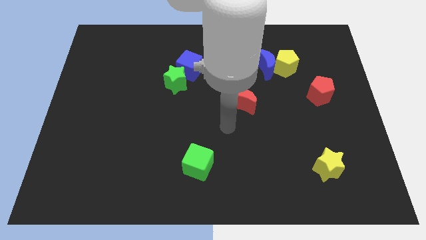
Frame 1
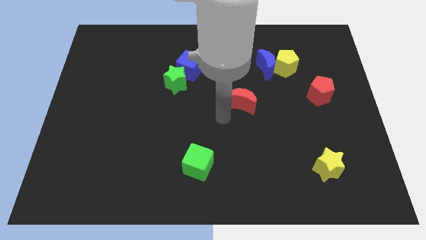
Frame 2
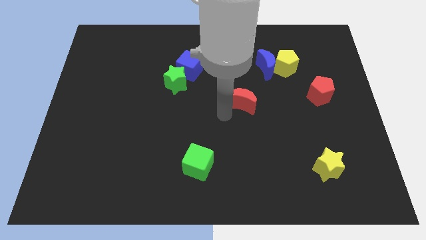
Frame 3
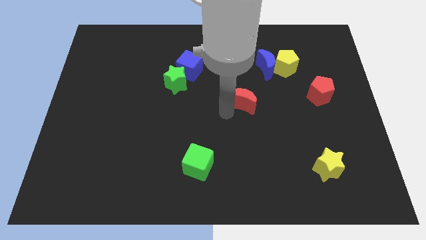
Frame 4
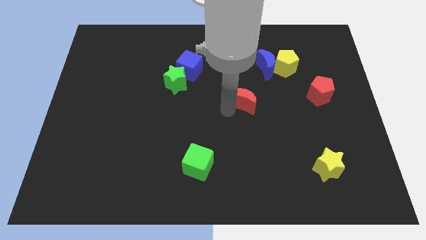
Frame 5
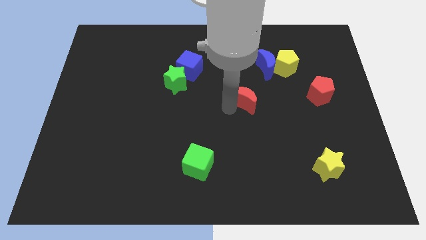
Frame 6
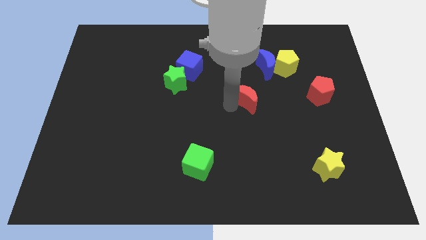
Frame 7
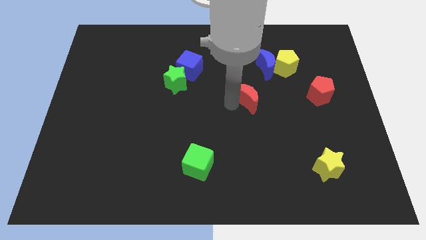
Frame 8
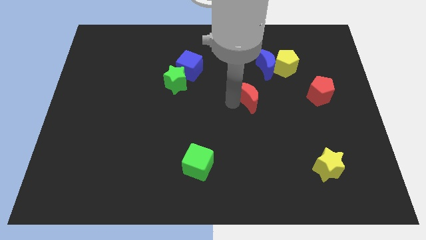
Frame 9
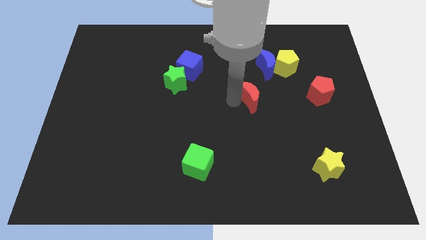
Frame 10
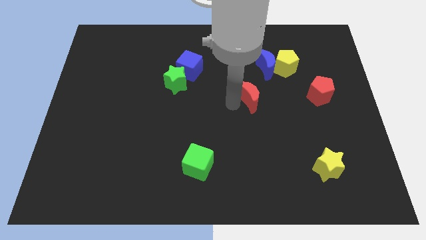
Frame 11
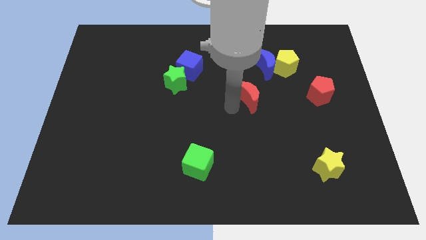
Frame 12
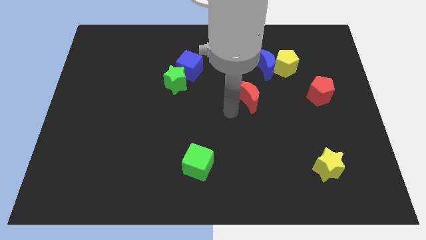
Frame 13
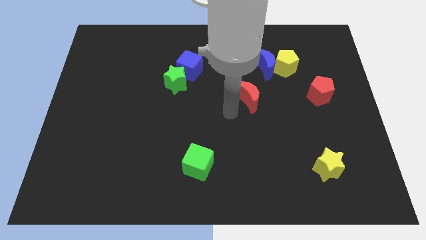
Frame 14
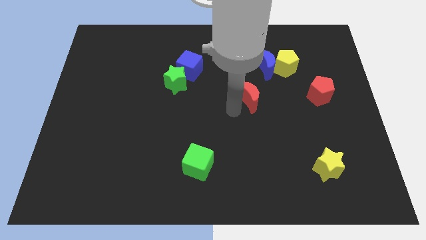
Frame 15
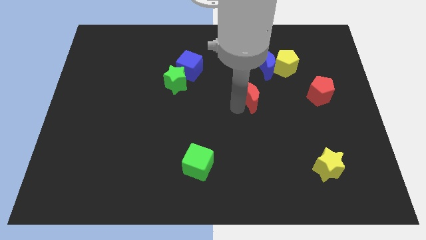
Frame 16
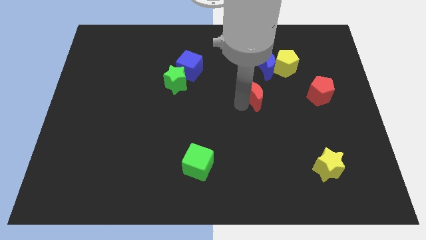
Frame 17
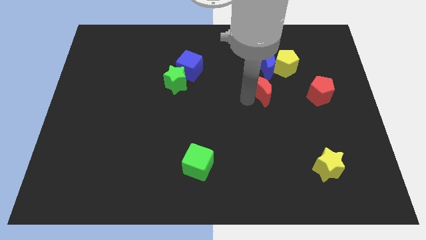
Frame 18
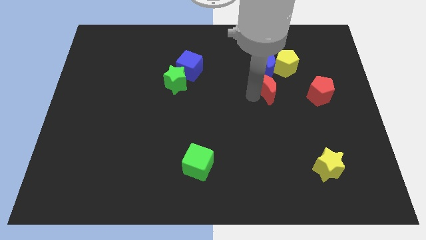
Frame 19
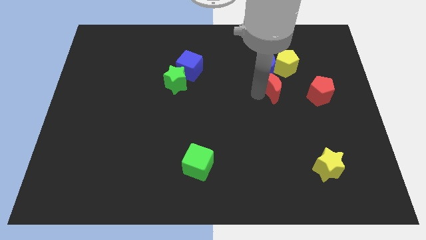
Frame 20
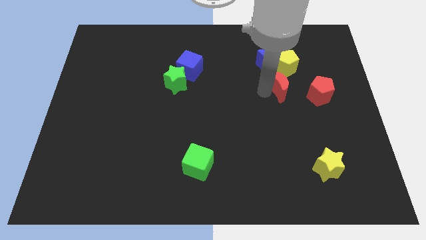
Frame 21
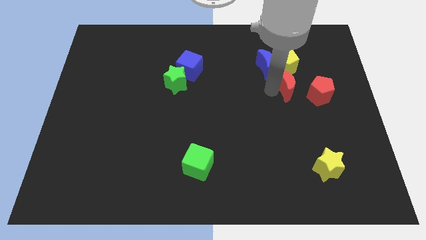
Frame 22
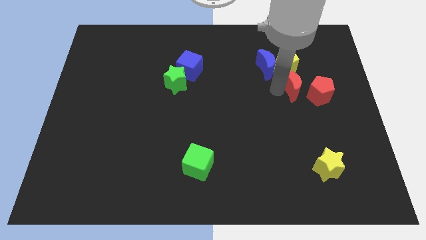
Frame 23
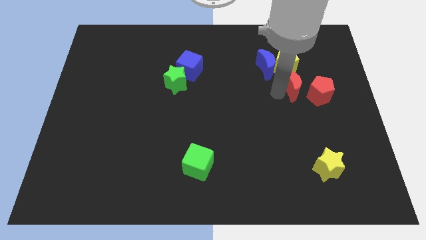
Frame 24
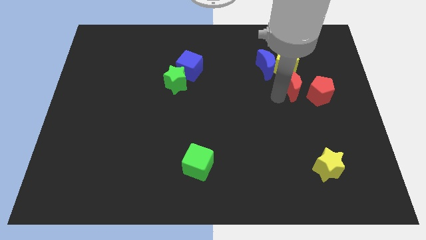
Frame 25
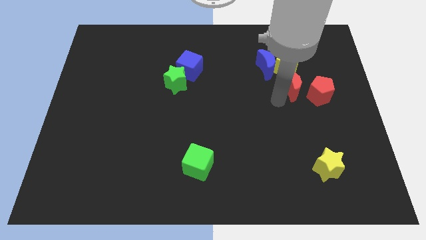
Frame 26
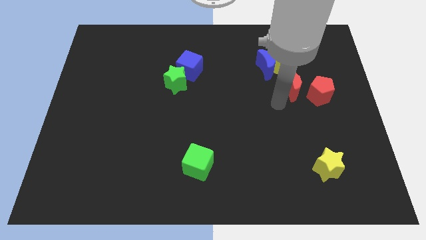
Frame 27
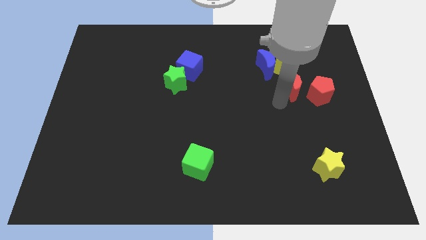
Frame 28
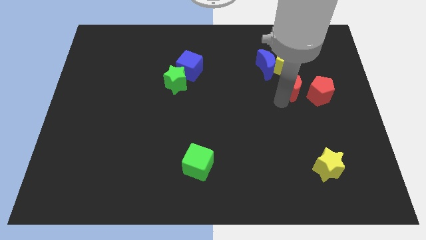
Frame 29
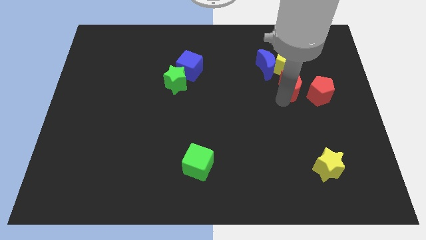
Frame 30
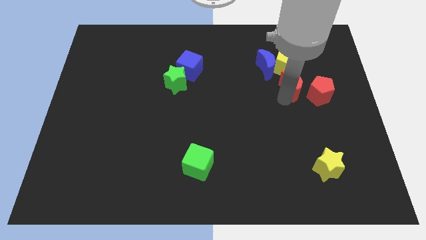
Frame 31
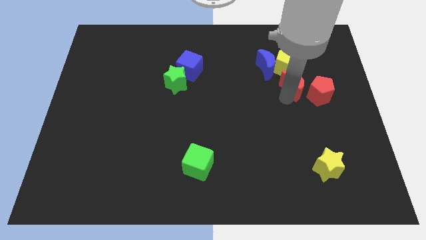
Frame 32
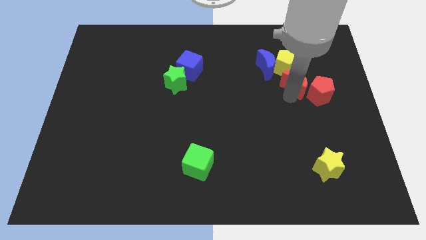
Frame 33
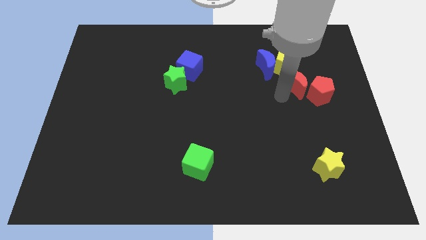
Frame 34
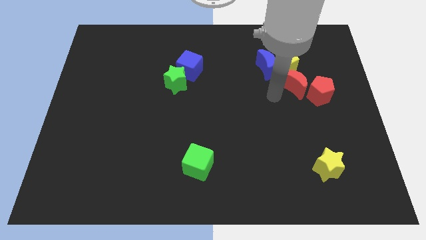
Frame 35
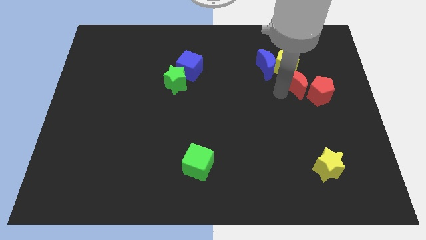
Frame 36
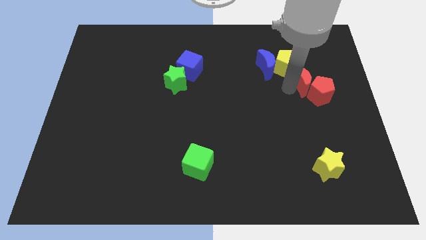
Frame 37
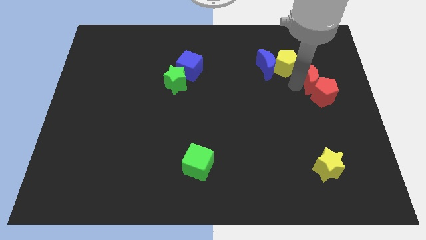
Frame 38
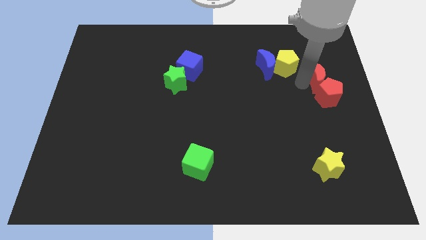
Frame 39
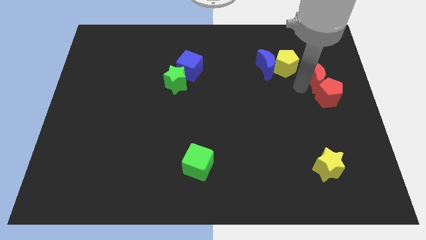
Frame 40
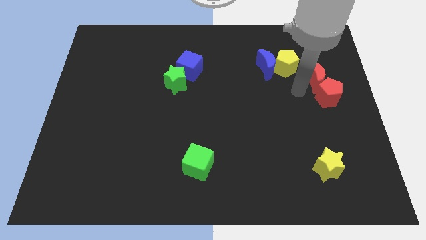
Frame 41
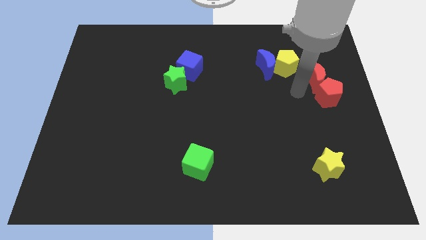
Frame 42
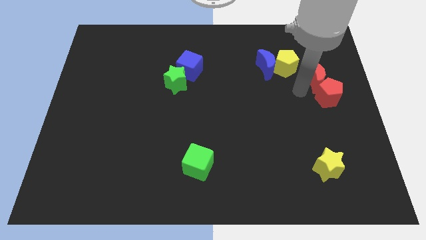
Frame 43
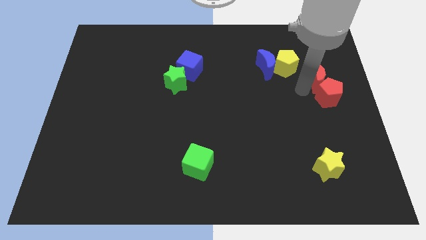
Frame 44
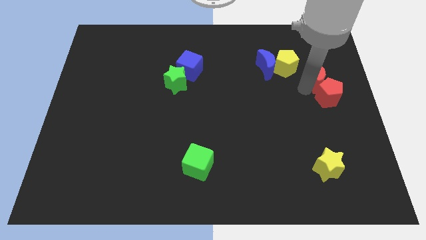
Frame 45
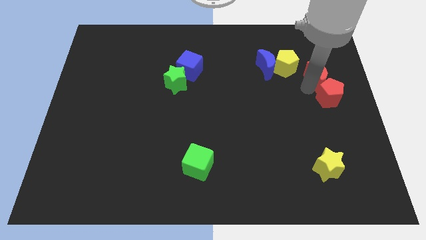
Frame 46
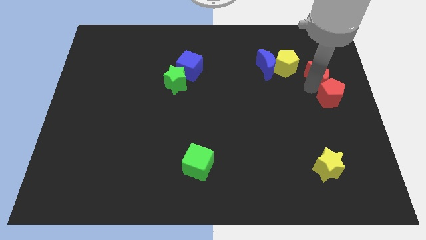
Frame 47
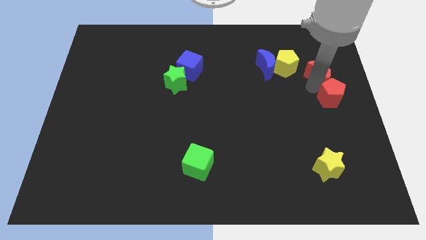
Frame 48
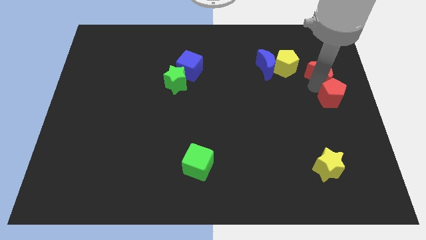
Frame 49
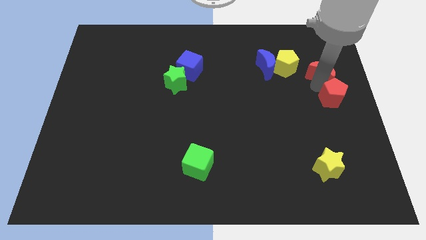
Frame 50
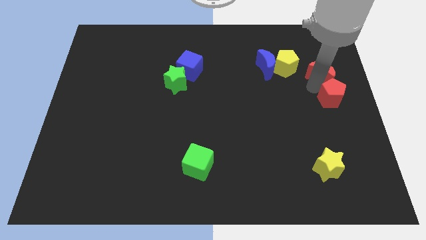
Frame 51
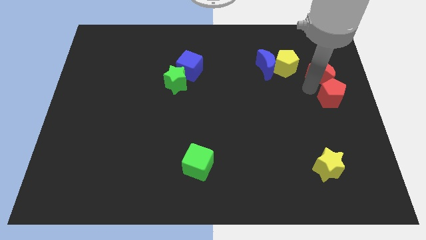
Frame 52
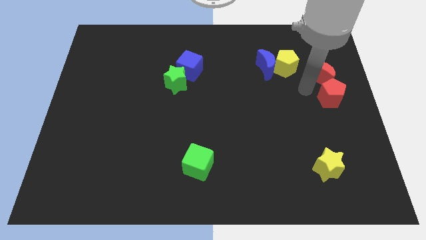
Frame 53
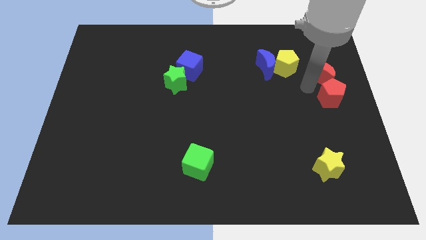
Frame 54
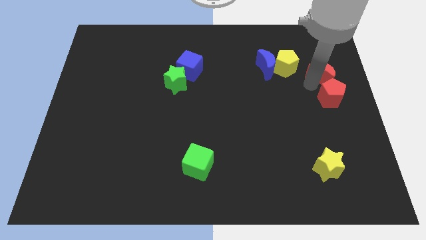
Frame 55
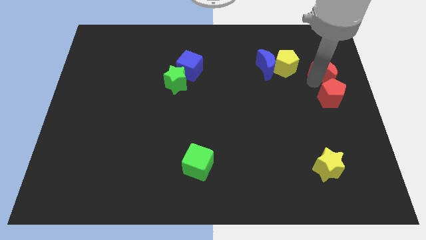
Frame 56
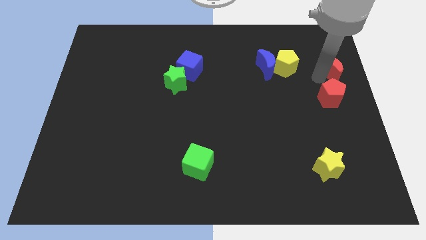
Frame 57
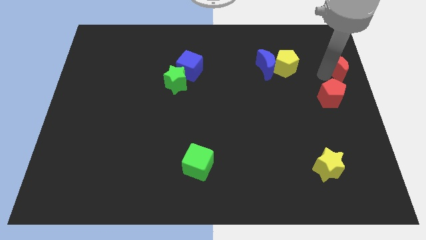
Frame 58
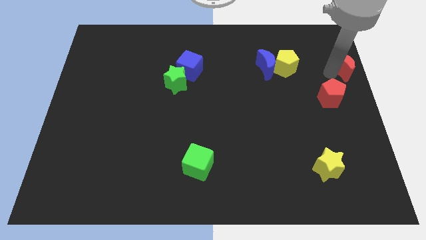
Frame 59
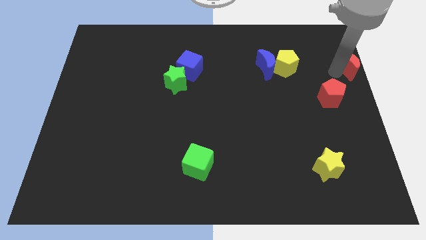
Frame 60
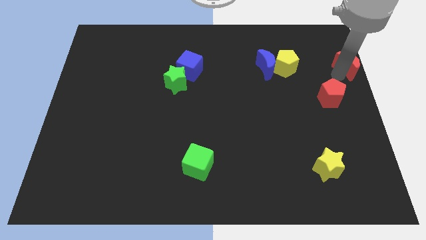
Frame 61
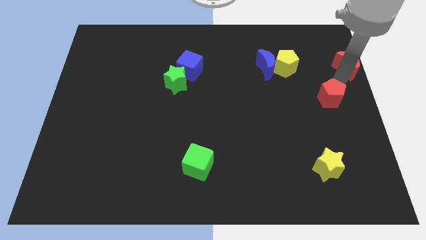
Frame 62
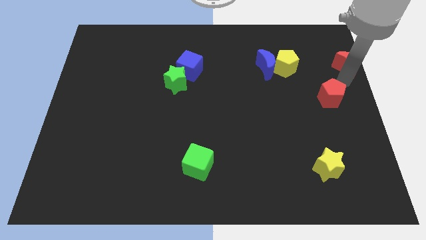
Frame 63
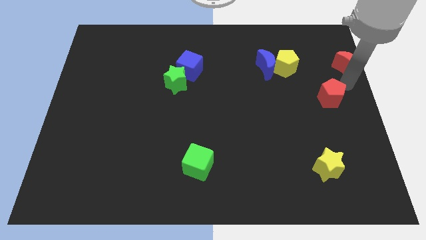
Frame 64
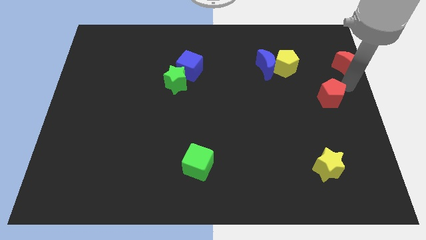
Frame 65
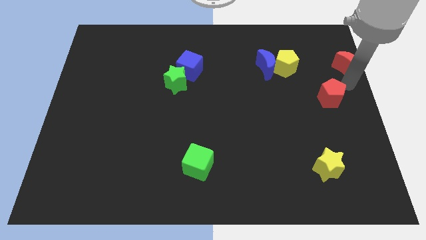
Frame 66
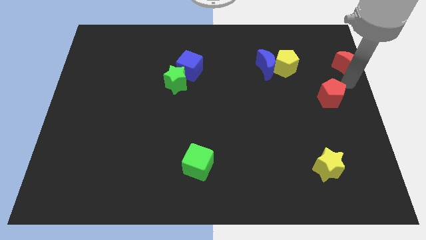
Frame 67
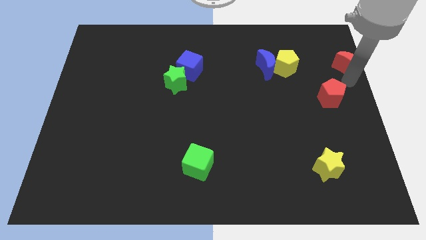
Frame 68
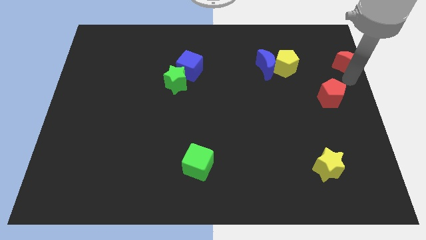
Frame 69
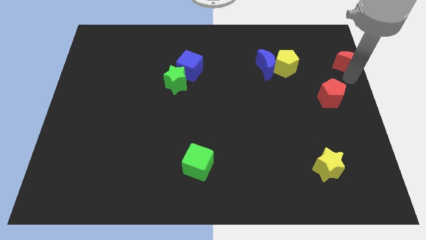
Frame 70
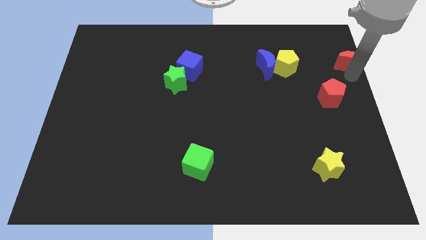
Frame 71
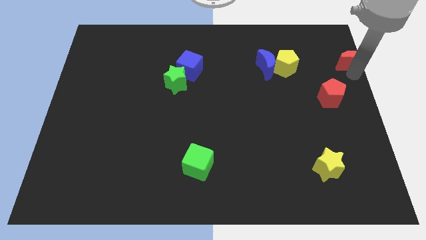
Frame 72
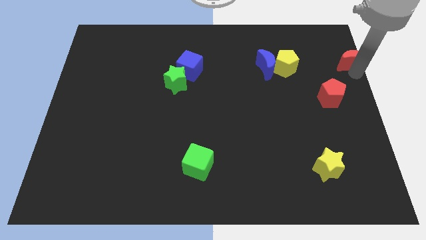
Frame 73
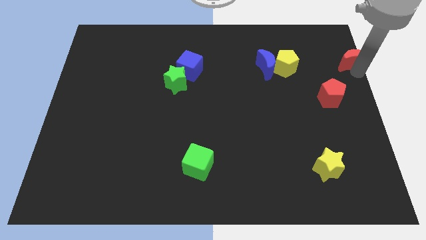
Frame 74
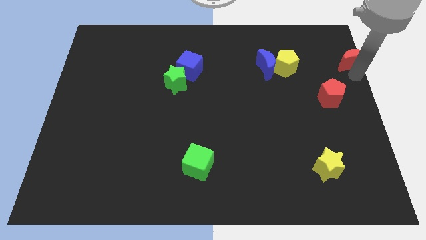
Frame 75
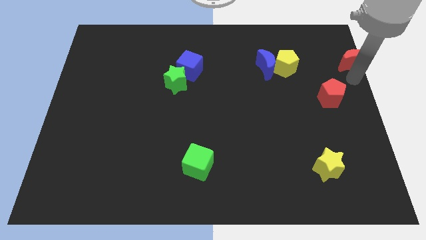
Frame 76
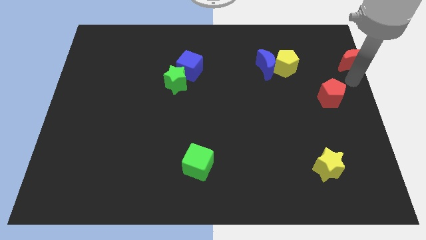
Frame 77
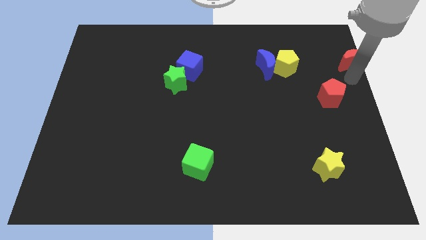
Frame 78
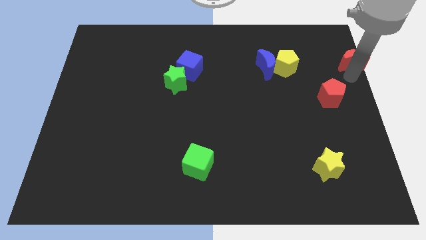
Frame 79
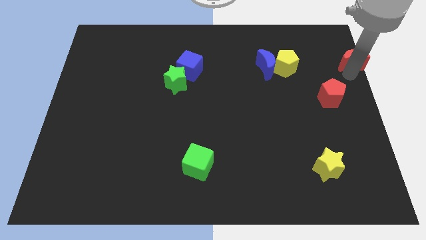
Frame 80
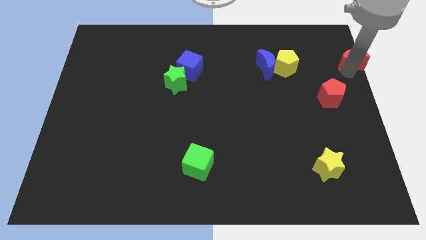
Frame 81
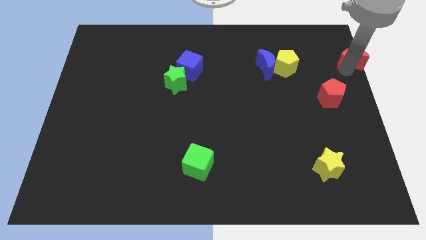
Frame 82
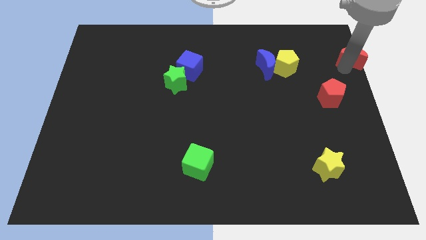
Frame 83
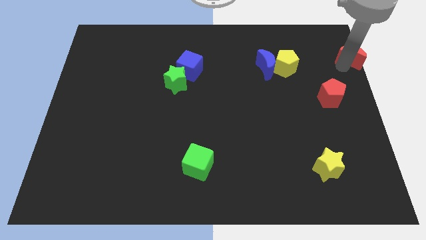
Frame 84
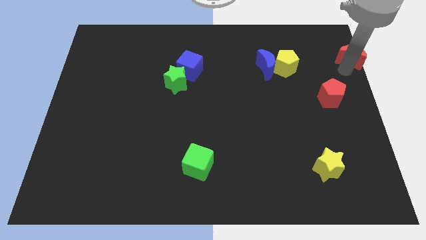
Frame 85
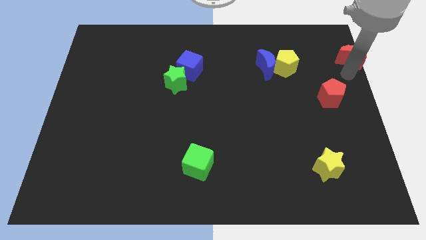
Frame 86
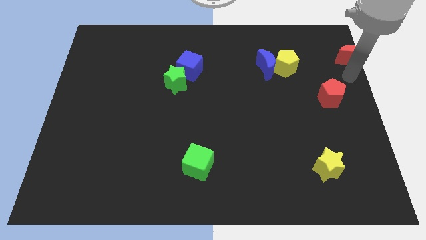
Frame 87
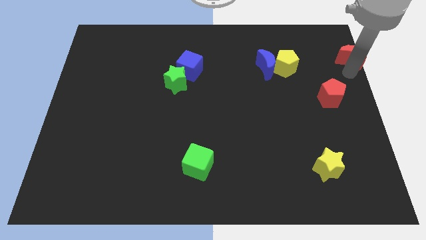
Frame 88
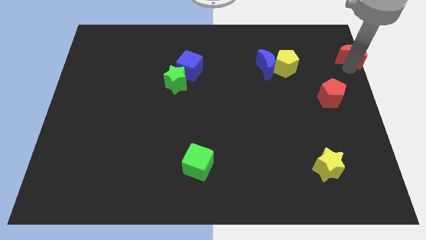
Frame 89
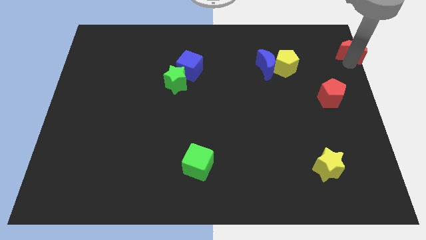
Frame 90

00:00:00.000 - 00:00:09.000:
put the red moon to the top right
